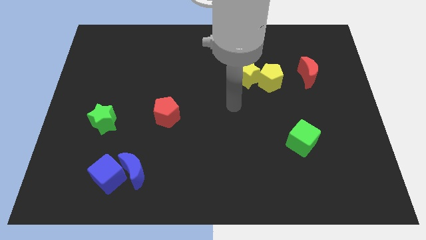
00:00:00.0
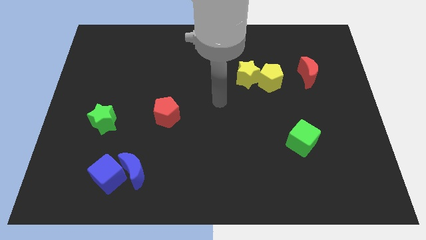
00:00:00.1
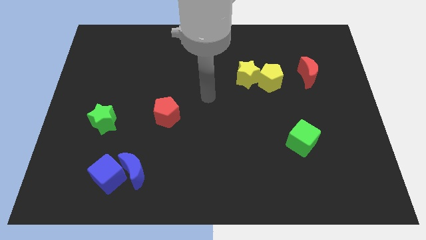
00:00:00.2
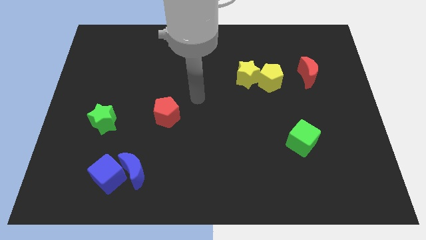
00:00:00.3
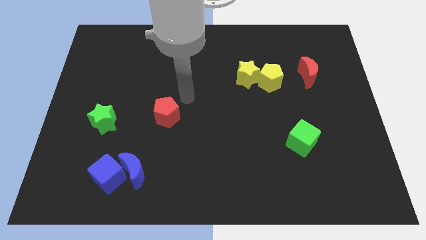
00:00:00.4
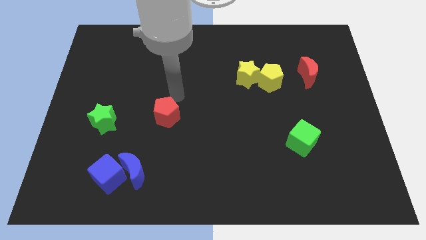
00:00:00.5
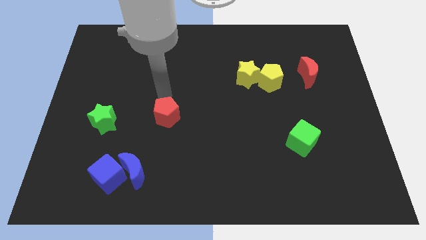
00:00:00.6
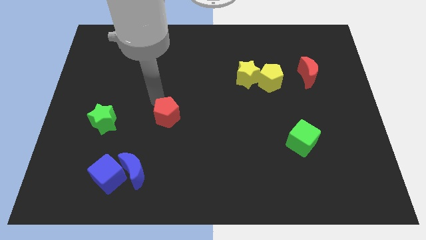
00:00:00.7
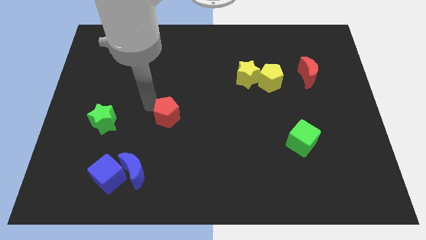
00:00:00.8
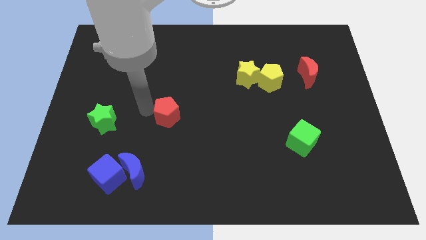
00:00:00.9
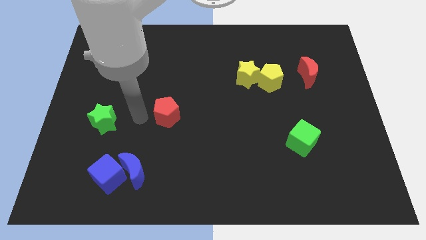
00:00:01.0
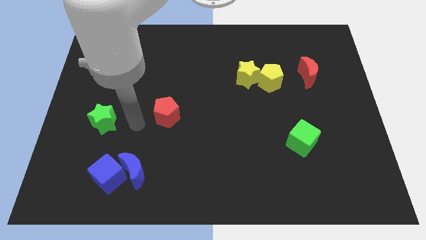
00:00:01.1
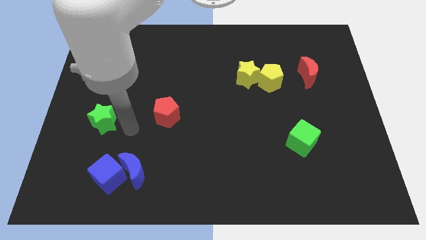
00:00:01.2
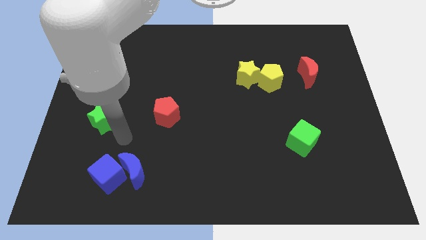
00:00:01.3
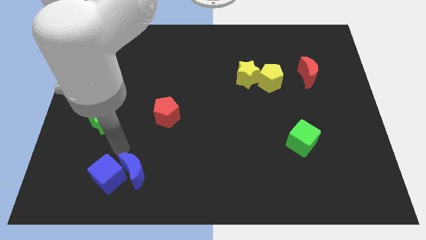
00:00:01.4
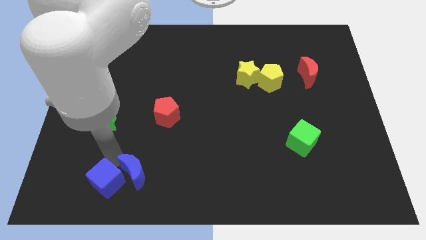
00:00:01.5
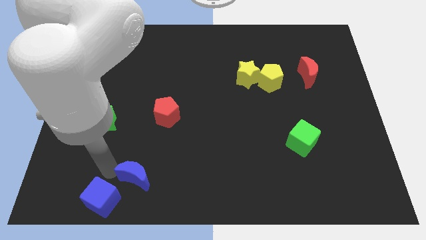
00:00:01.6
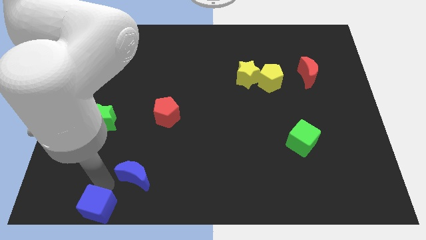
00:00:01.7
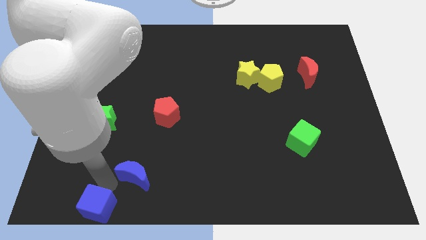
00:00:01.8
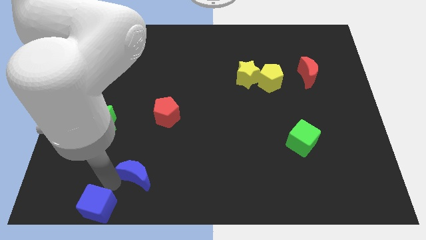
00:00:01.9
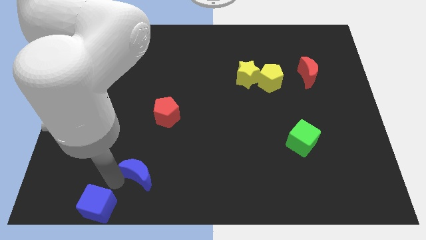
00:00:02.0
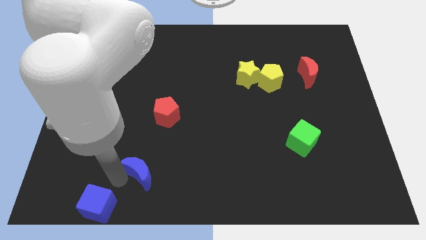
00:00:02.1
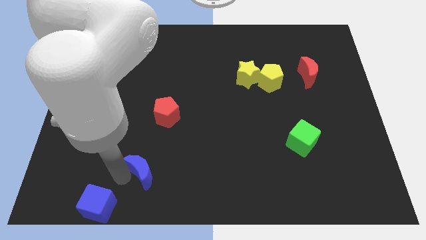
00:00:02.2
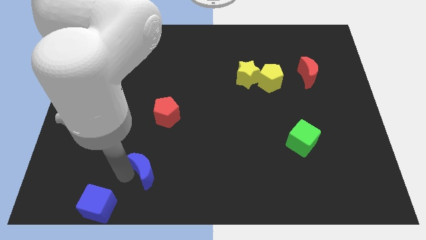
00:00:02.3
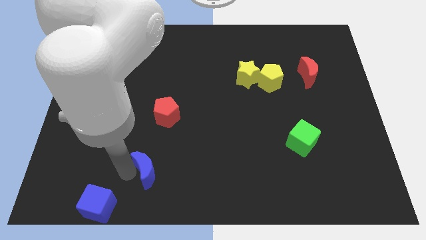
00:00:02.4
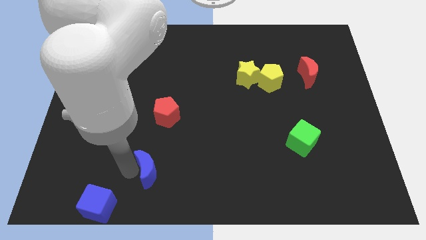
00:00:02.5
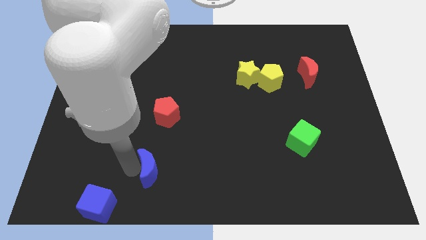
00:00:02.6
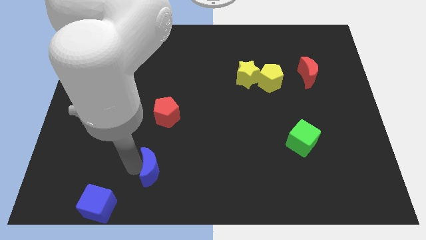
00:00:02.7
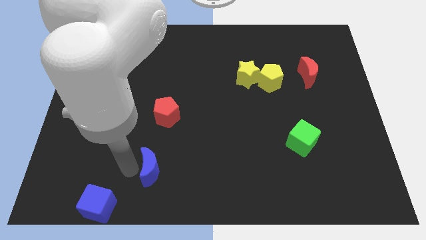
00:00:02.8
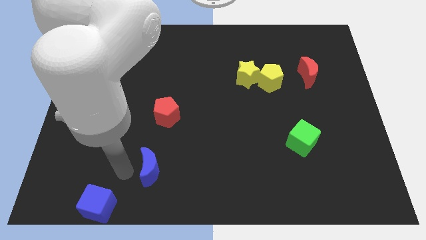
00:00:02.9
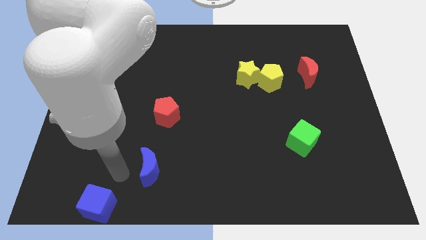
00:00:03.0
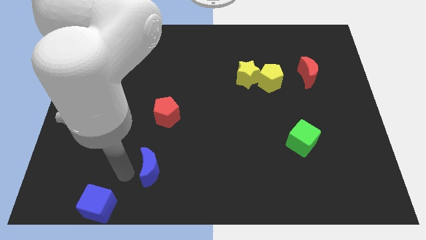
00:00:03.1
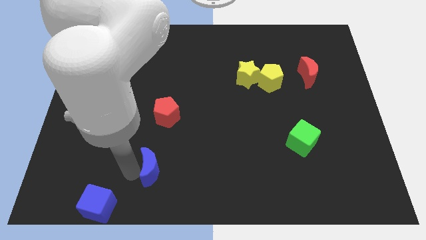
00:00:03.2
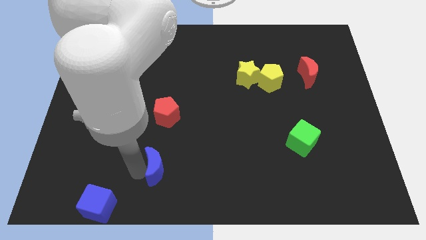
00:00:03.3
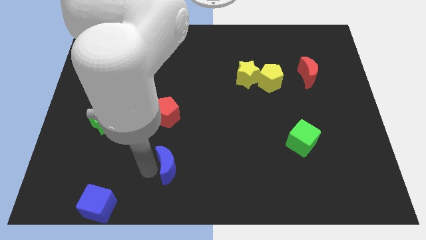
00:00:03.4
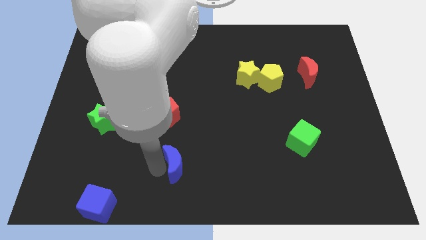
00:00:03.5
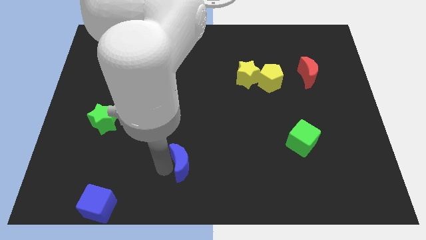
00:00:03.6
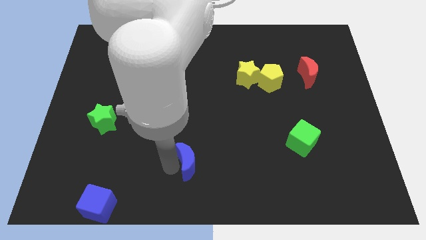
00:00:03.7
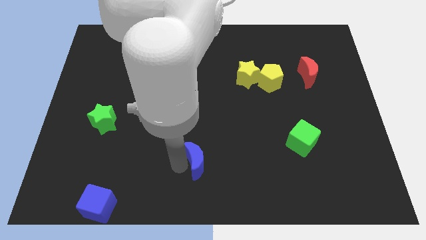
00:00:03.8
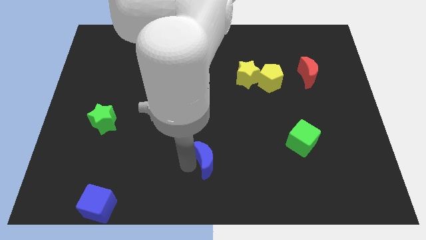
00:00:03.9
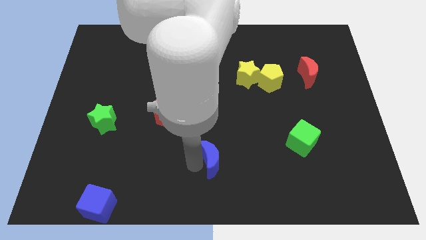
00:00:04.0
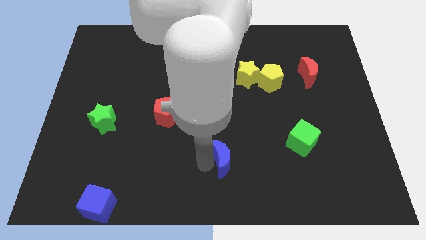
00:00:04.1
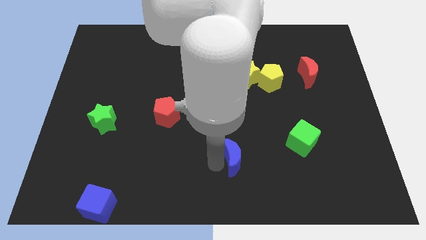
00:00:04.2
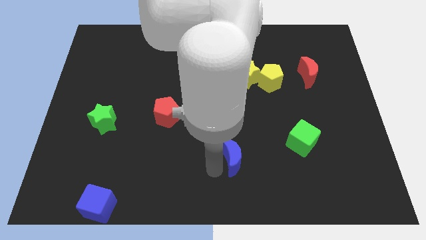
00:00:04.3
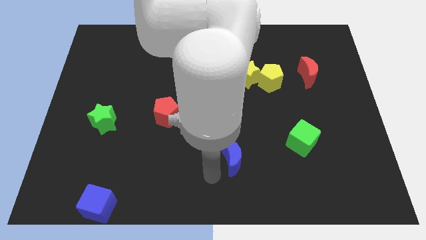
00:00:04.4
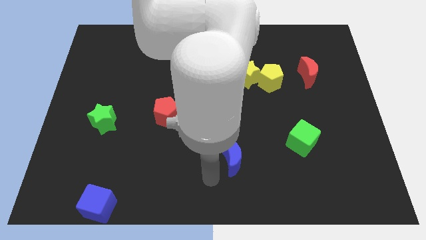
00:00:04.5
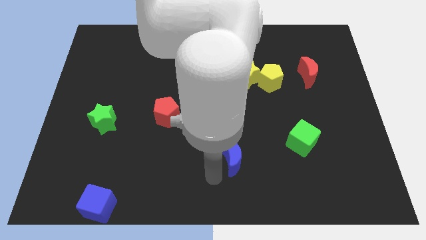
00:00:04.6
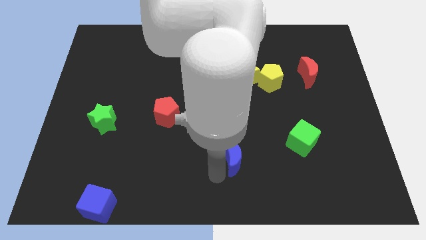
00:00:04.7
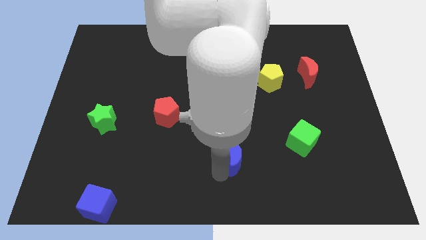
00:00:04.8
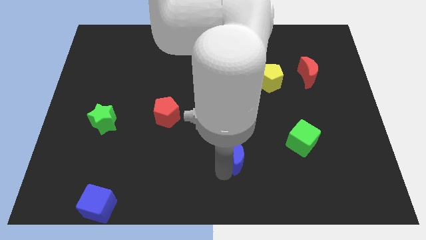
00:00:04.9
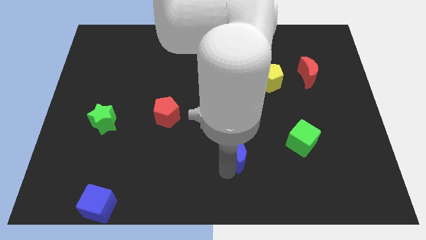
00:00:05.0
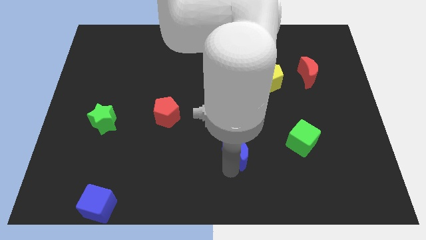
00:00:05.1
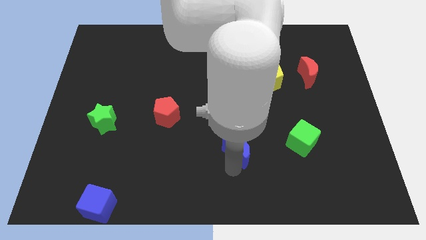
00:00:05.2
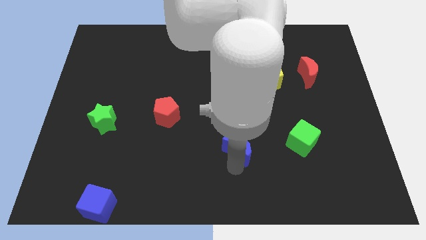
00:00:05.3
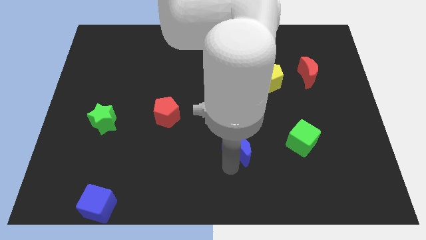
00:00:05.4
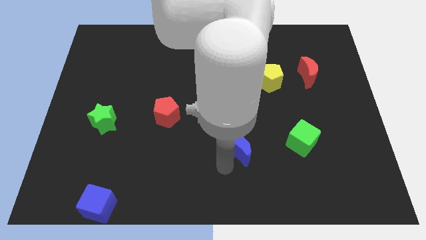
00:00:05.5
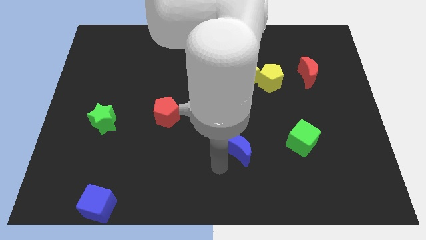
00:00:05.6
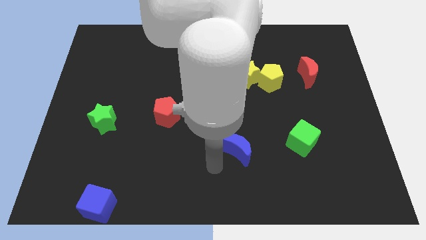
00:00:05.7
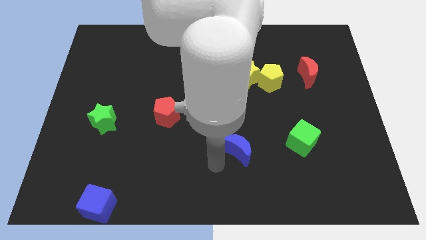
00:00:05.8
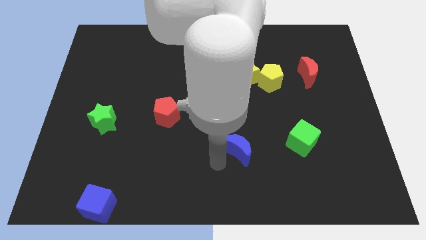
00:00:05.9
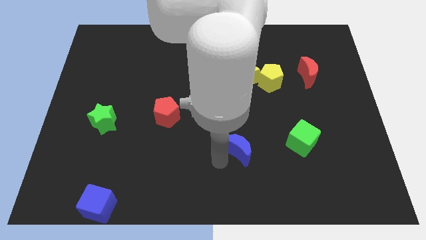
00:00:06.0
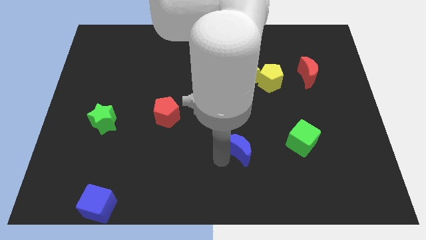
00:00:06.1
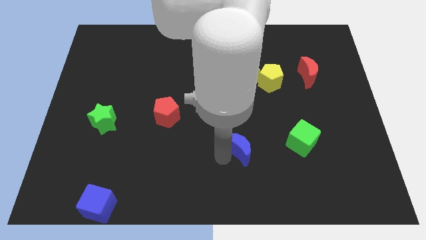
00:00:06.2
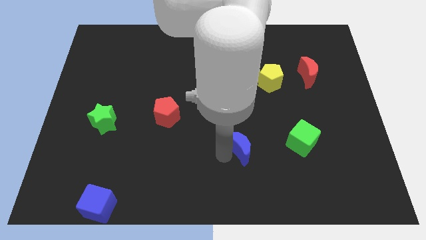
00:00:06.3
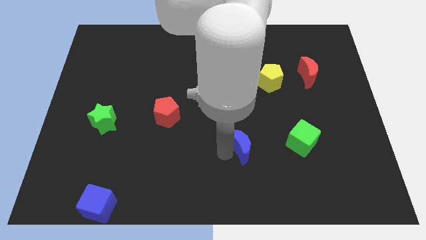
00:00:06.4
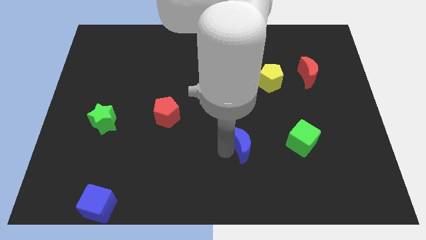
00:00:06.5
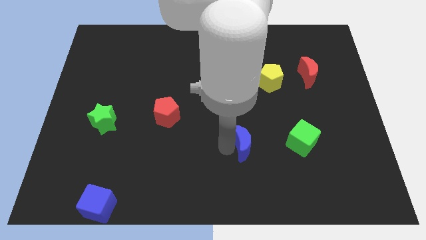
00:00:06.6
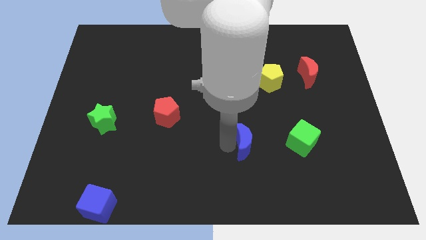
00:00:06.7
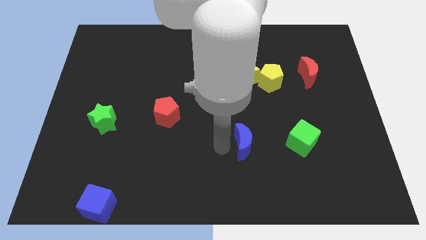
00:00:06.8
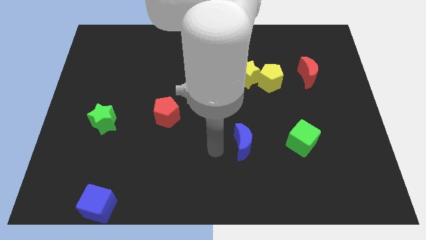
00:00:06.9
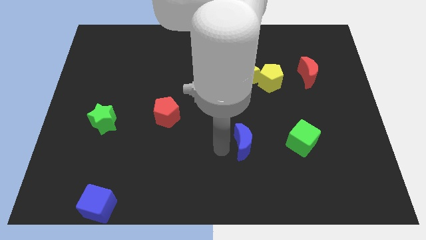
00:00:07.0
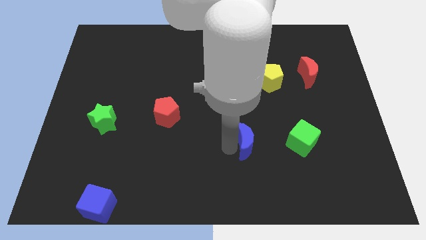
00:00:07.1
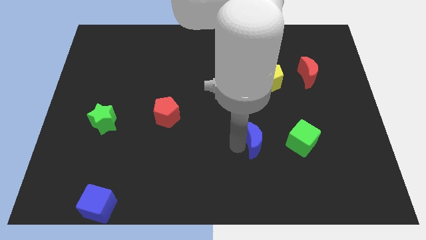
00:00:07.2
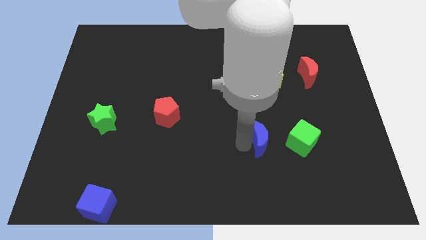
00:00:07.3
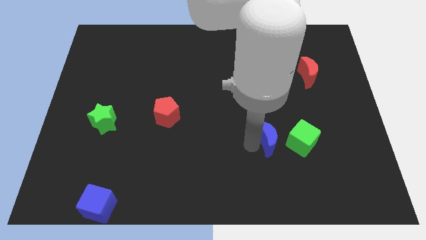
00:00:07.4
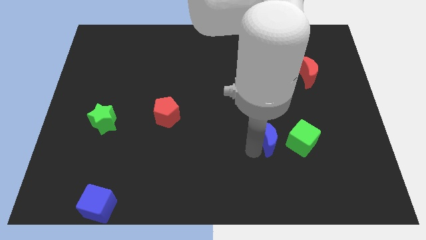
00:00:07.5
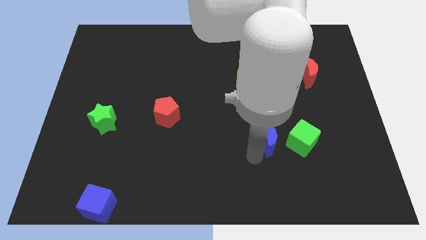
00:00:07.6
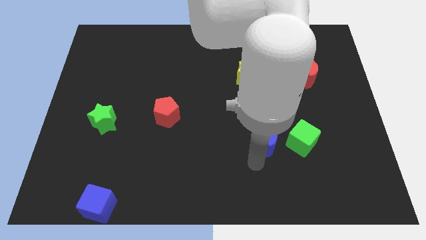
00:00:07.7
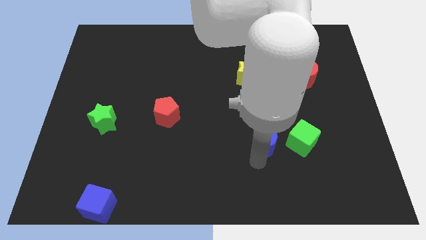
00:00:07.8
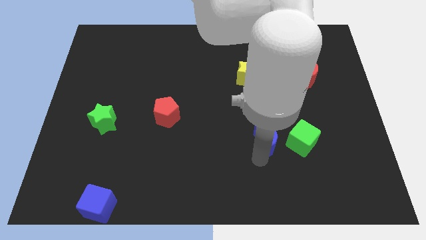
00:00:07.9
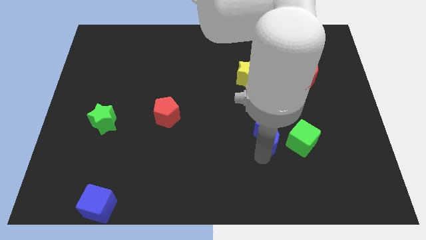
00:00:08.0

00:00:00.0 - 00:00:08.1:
push the blue moon to the top left of the green cube

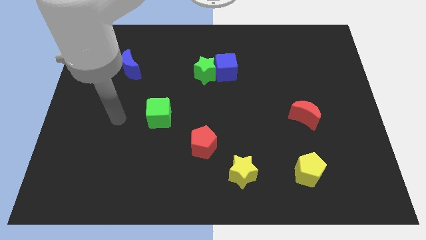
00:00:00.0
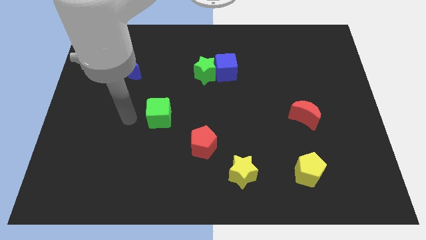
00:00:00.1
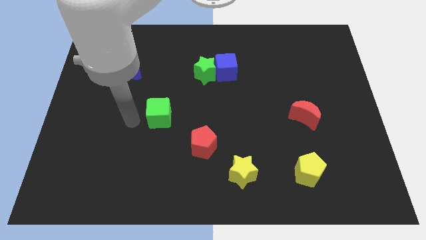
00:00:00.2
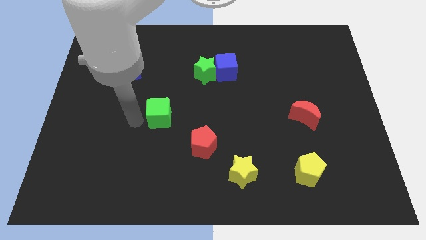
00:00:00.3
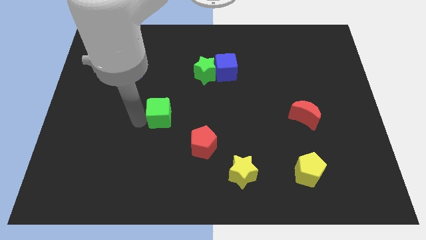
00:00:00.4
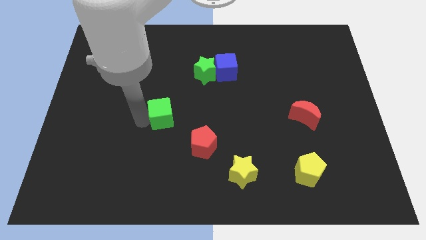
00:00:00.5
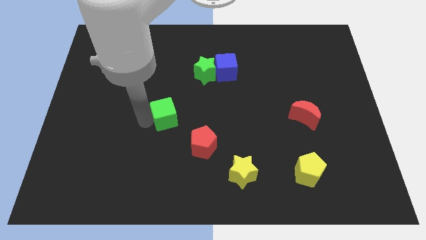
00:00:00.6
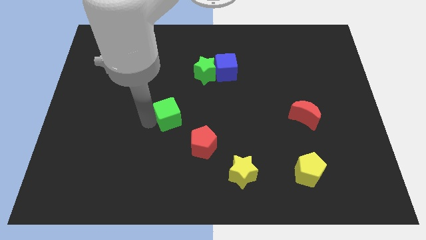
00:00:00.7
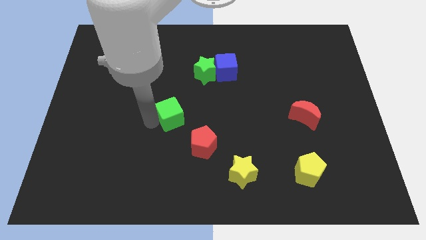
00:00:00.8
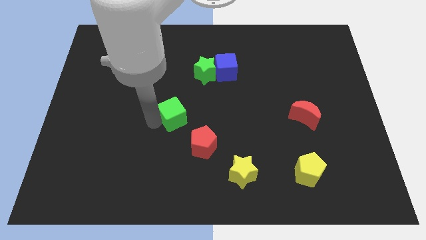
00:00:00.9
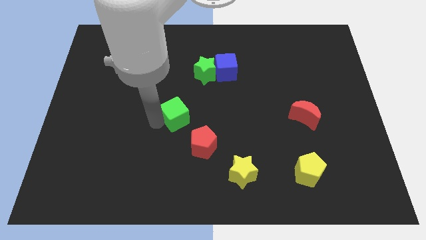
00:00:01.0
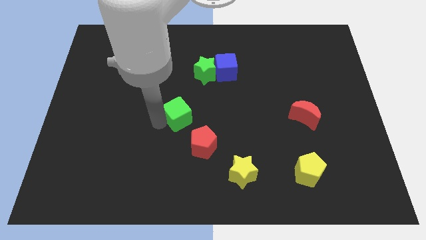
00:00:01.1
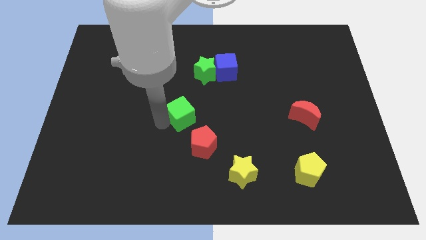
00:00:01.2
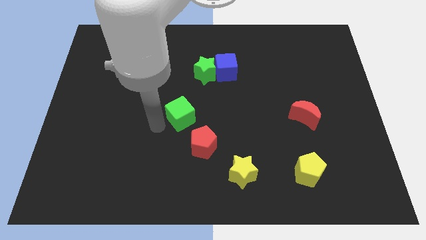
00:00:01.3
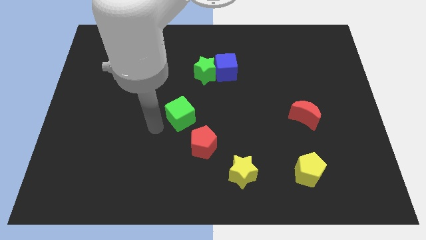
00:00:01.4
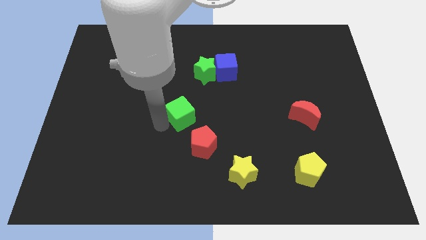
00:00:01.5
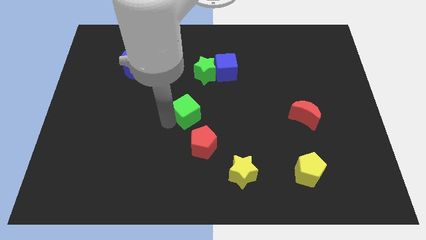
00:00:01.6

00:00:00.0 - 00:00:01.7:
put the green cube to the bottom of the green star
